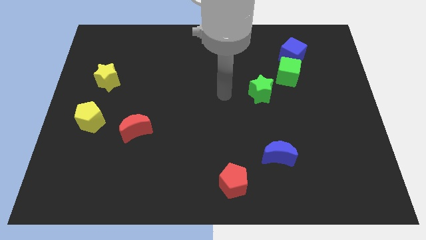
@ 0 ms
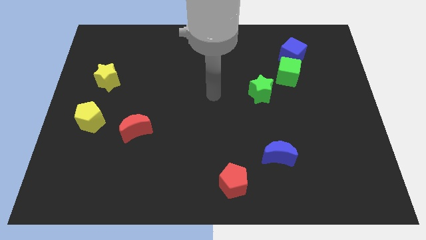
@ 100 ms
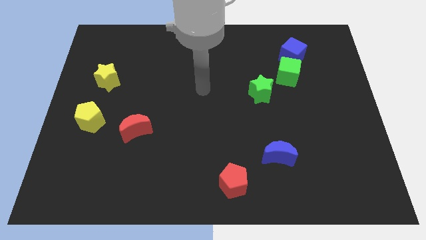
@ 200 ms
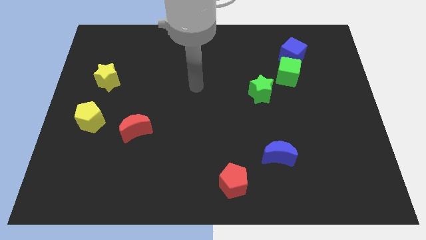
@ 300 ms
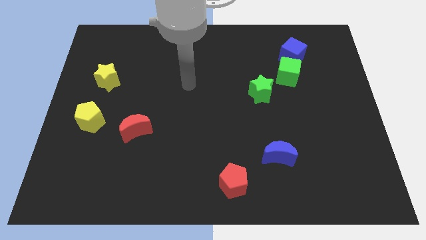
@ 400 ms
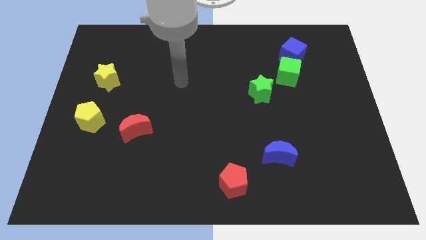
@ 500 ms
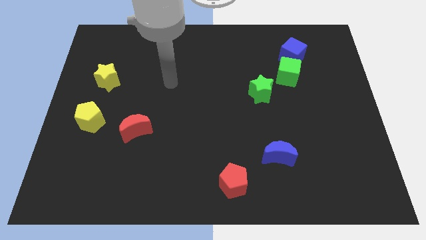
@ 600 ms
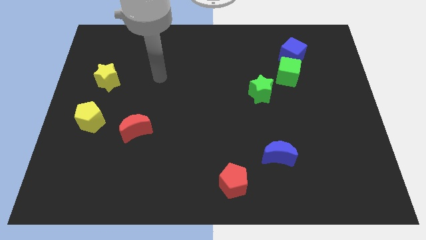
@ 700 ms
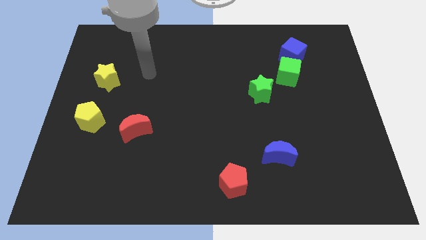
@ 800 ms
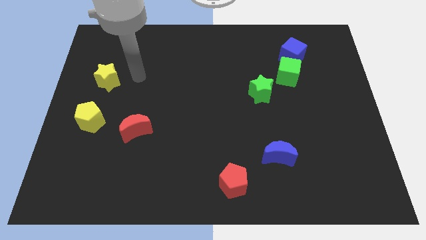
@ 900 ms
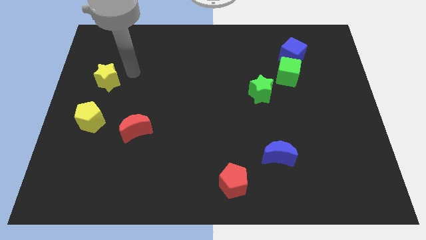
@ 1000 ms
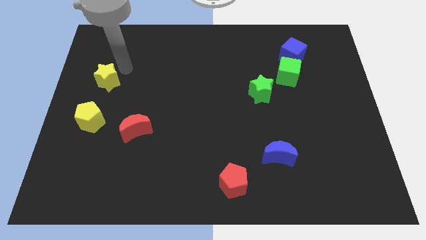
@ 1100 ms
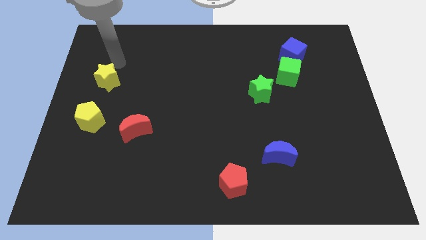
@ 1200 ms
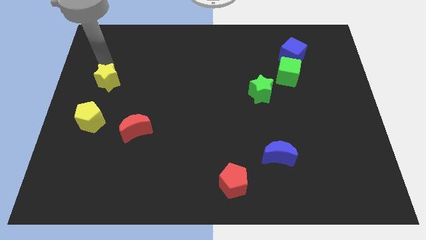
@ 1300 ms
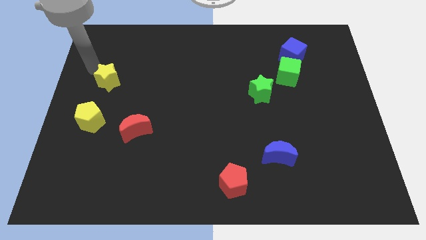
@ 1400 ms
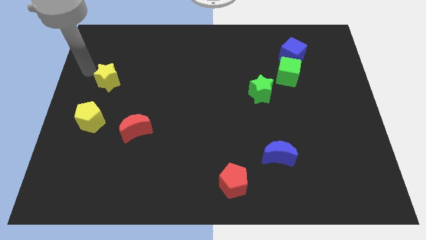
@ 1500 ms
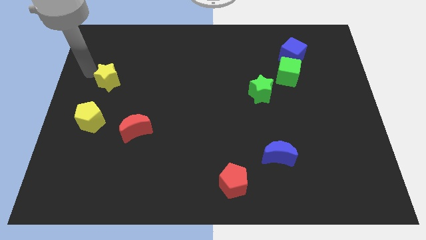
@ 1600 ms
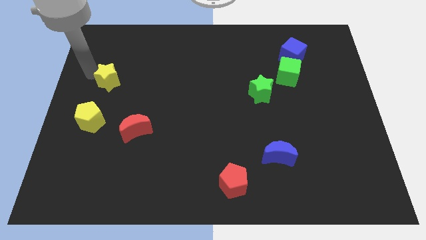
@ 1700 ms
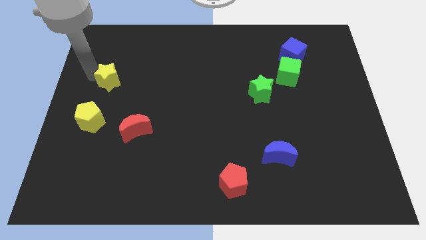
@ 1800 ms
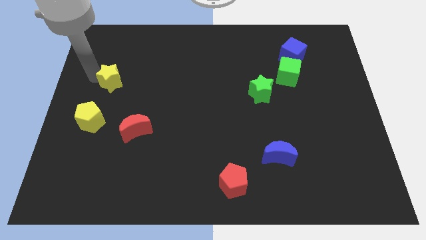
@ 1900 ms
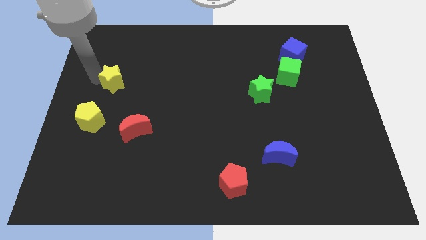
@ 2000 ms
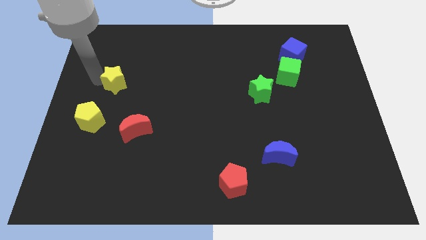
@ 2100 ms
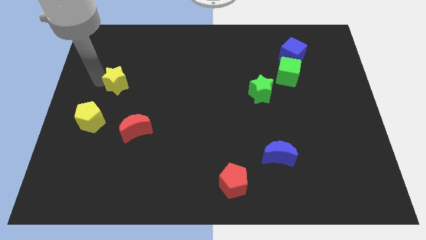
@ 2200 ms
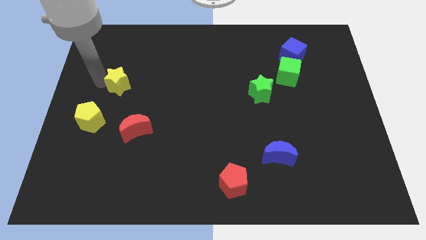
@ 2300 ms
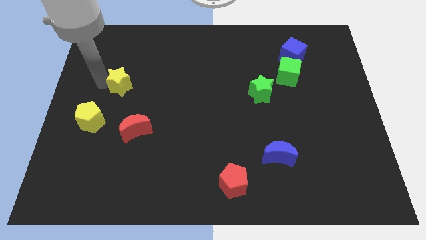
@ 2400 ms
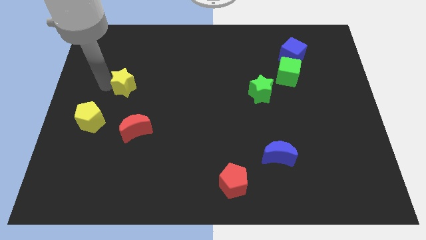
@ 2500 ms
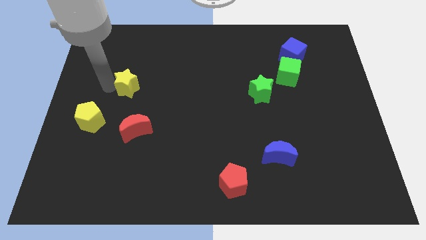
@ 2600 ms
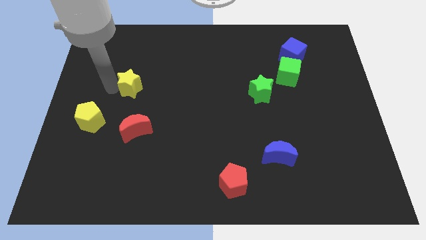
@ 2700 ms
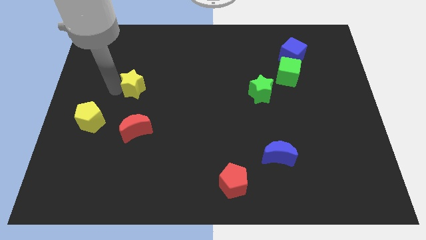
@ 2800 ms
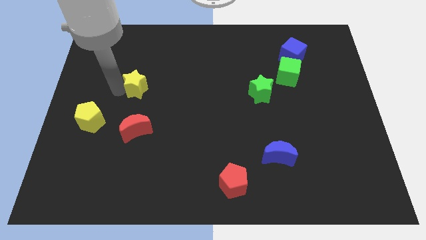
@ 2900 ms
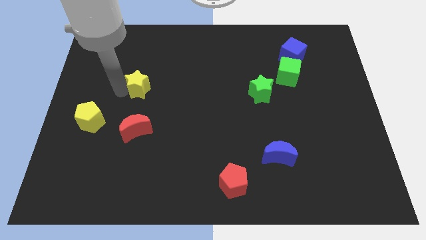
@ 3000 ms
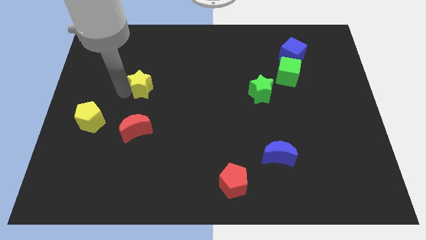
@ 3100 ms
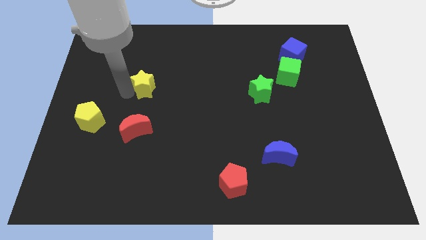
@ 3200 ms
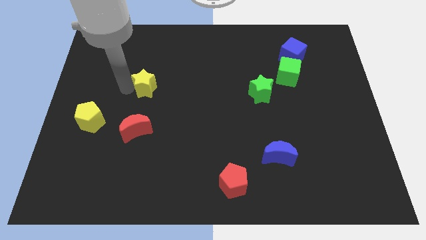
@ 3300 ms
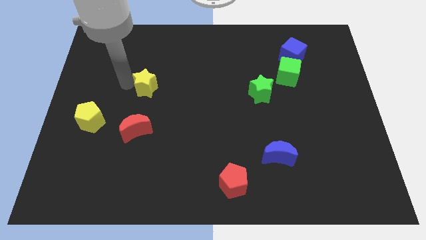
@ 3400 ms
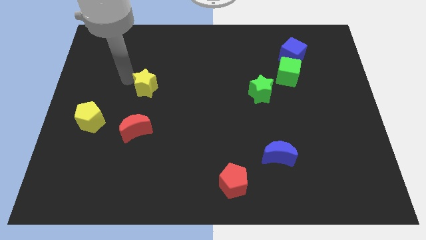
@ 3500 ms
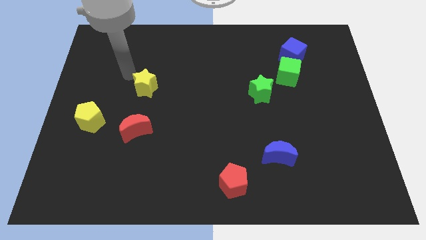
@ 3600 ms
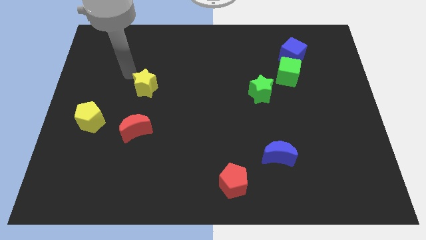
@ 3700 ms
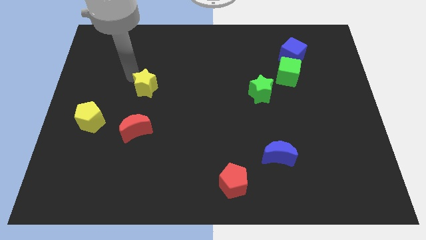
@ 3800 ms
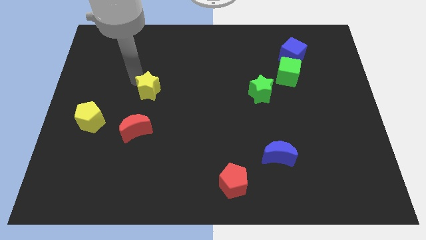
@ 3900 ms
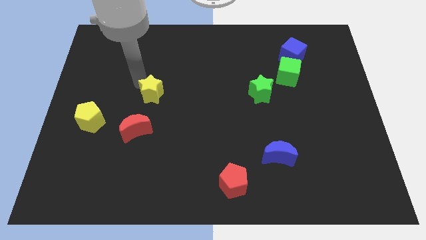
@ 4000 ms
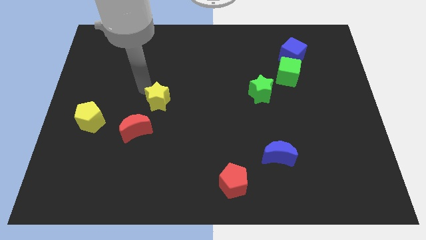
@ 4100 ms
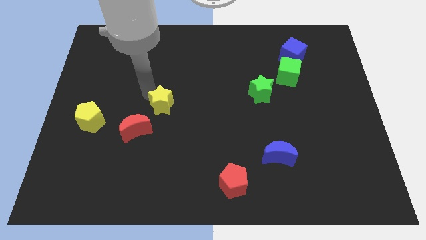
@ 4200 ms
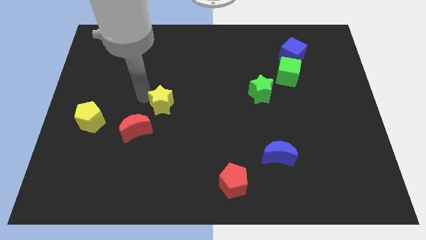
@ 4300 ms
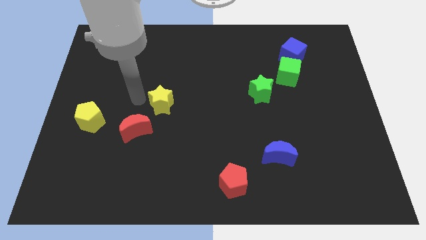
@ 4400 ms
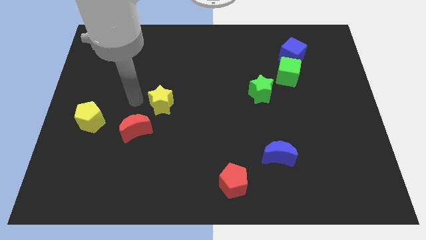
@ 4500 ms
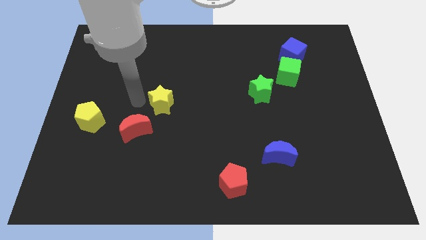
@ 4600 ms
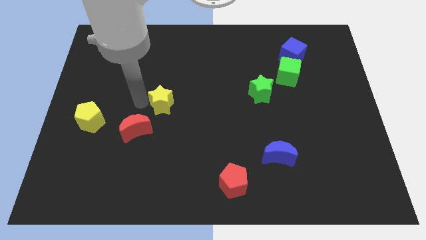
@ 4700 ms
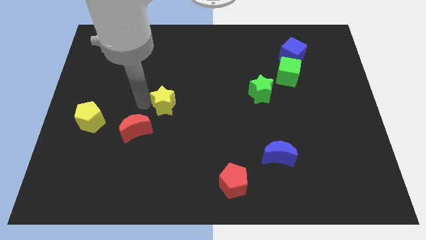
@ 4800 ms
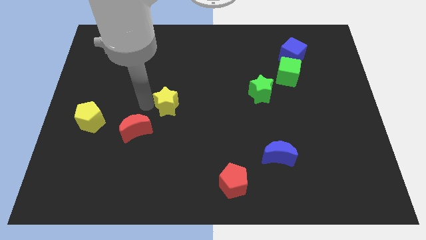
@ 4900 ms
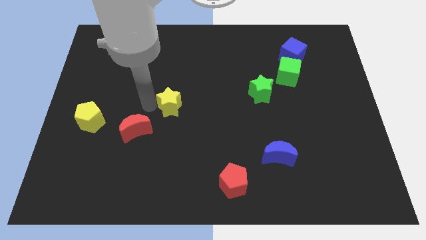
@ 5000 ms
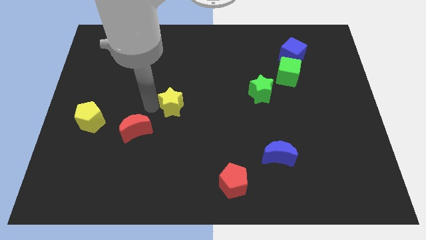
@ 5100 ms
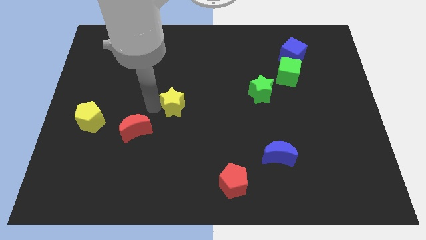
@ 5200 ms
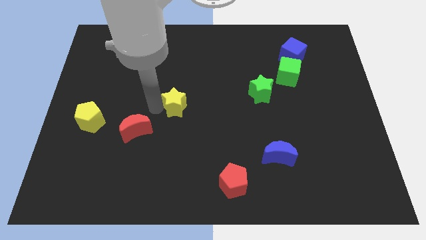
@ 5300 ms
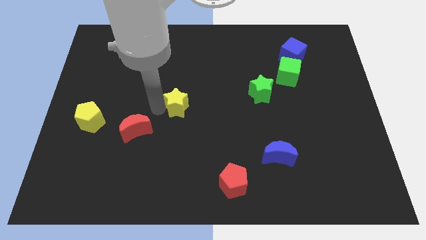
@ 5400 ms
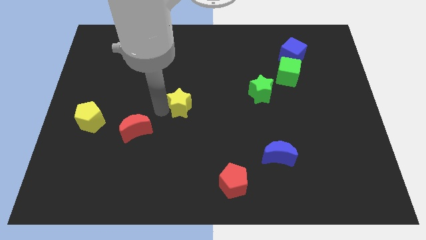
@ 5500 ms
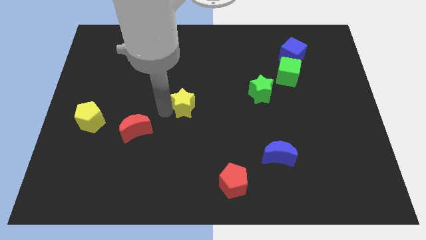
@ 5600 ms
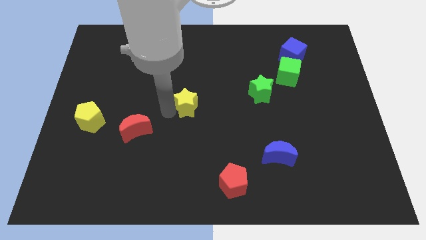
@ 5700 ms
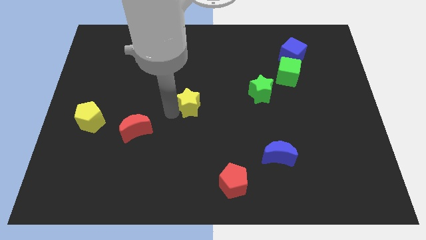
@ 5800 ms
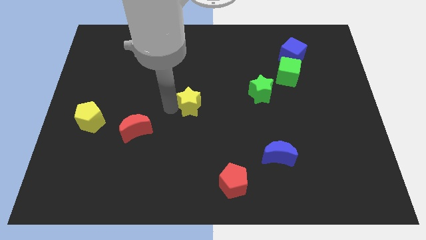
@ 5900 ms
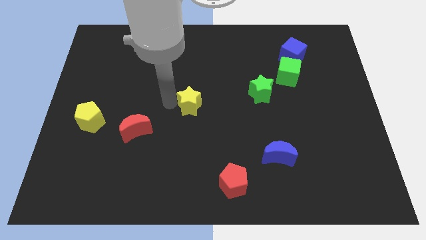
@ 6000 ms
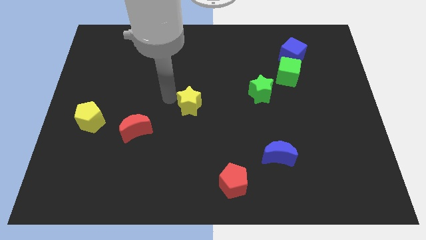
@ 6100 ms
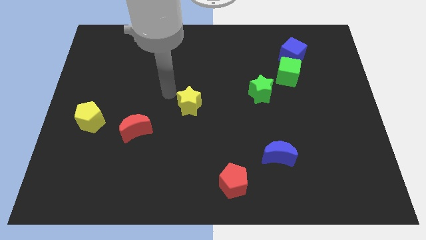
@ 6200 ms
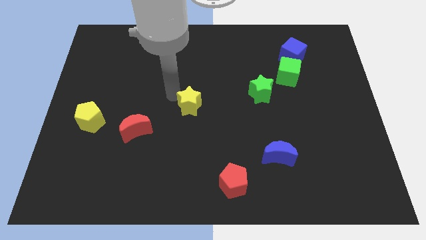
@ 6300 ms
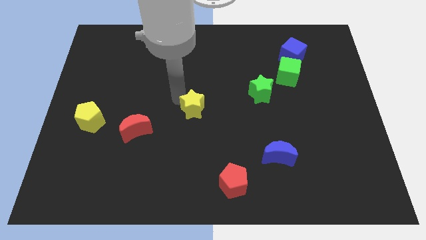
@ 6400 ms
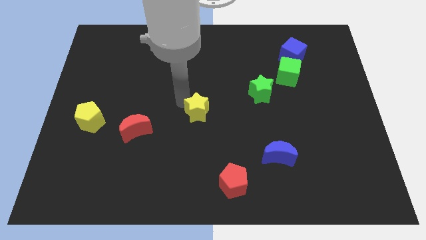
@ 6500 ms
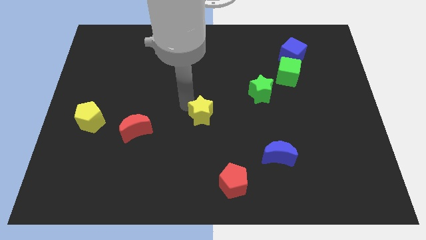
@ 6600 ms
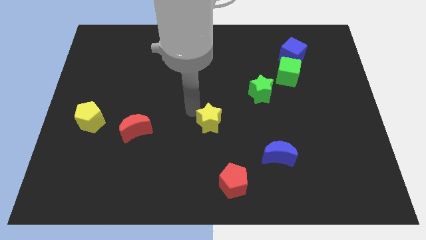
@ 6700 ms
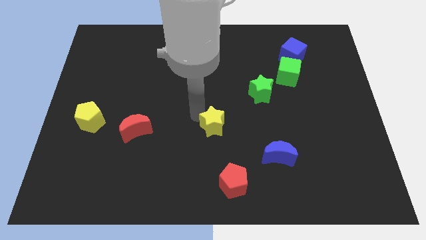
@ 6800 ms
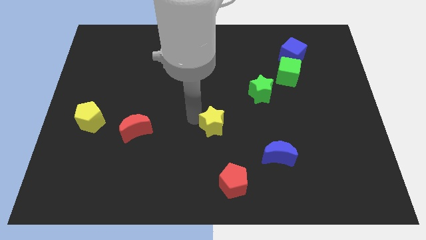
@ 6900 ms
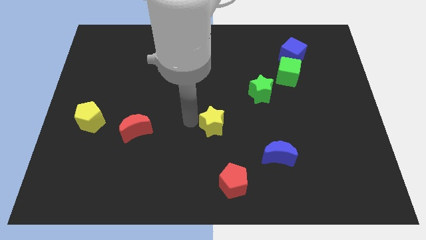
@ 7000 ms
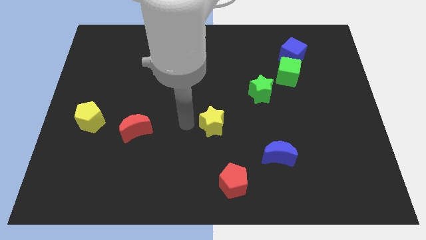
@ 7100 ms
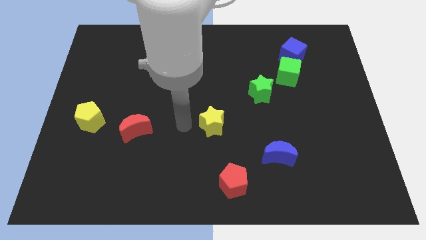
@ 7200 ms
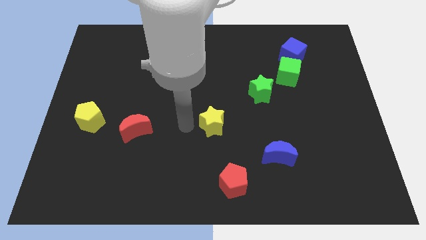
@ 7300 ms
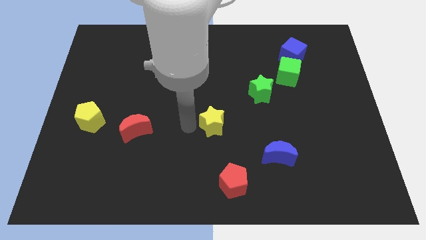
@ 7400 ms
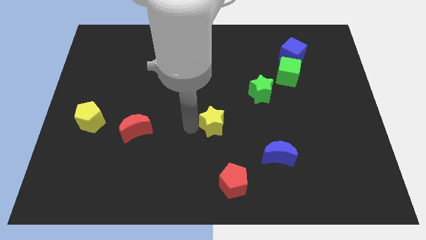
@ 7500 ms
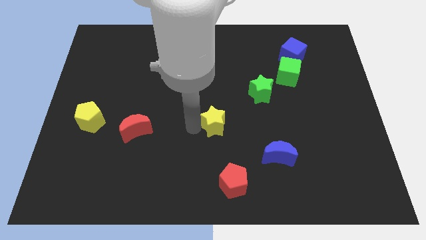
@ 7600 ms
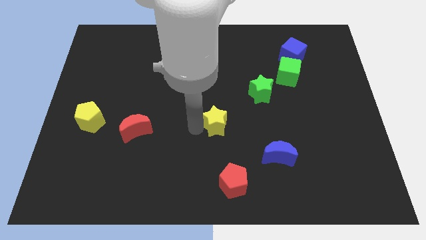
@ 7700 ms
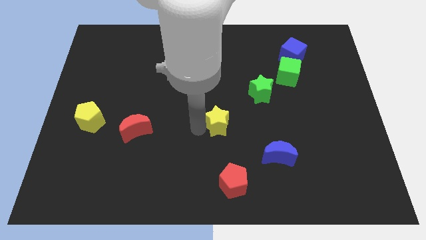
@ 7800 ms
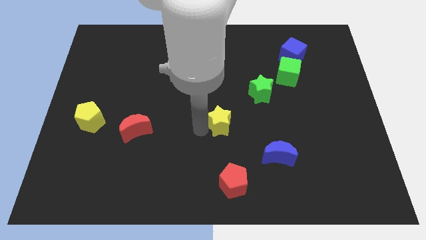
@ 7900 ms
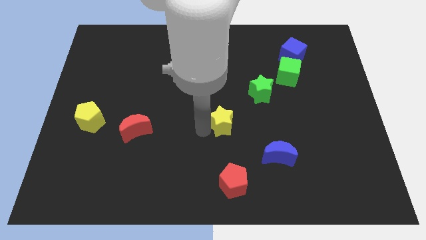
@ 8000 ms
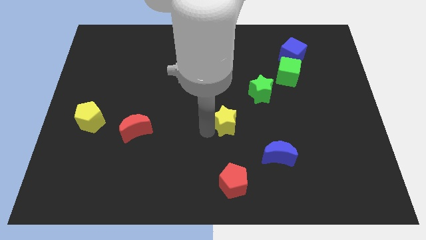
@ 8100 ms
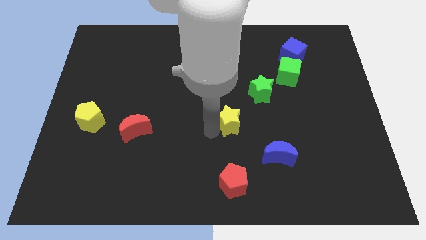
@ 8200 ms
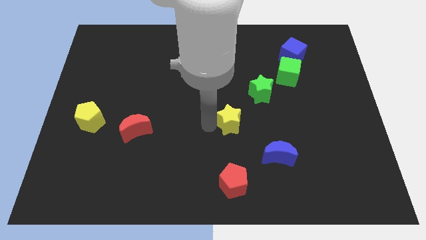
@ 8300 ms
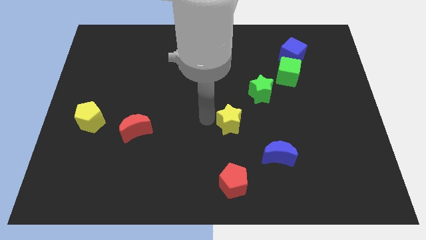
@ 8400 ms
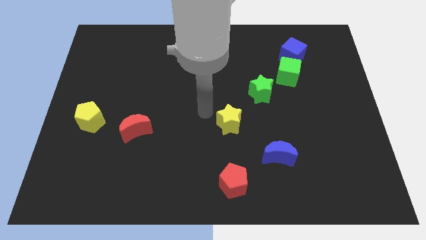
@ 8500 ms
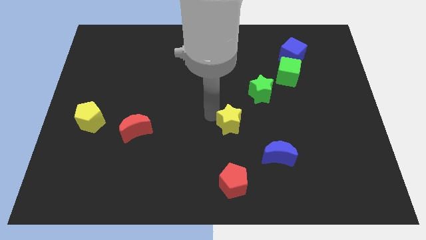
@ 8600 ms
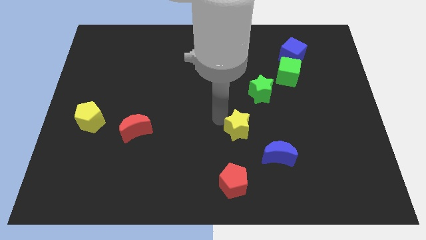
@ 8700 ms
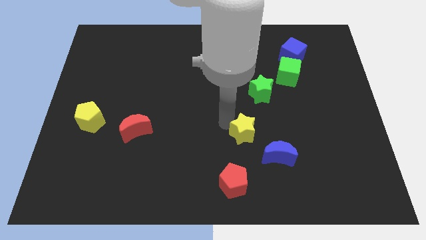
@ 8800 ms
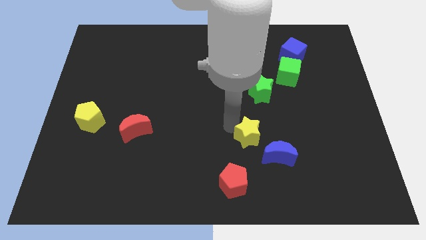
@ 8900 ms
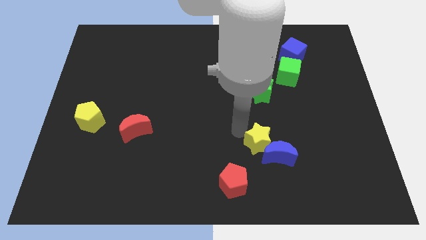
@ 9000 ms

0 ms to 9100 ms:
slide the yellow star next to the blue moon
